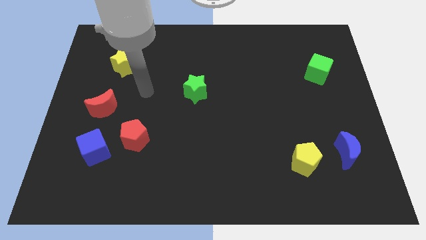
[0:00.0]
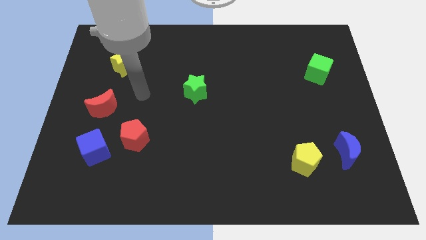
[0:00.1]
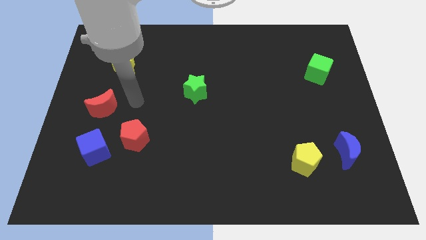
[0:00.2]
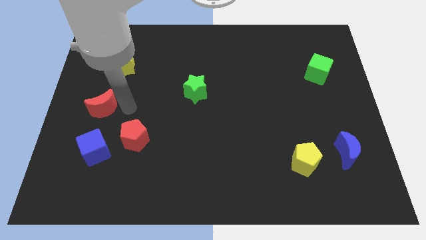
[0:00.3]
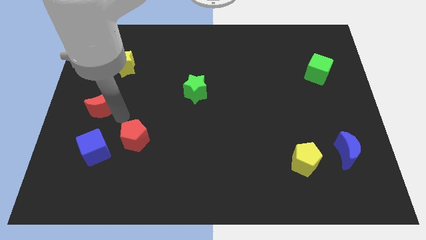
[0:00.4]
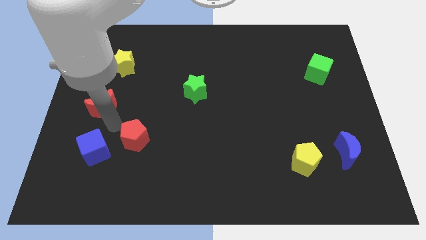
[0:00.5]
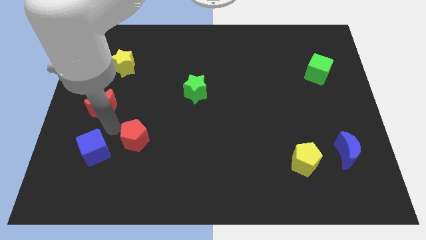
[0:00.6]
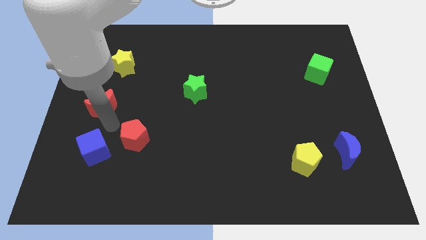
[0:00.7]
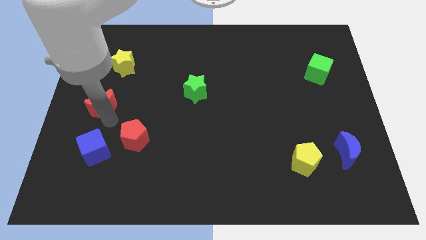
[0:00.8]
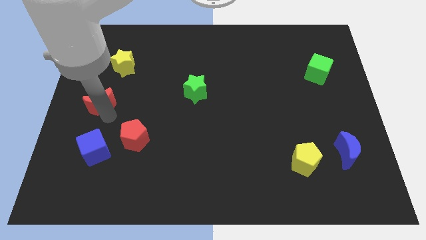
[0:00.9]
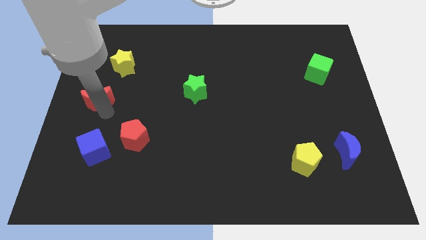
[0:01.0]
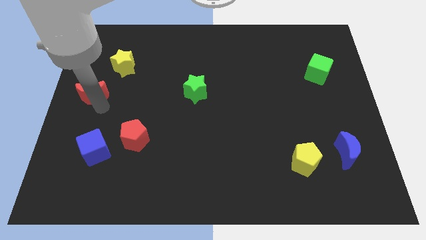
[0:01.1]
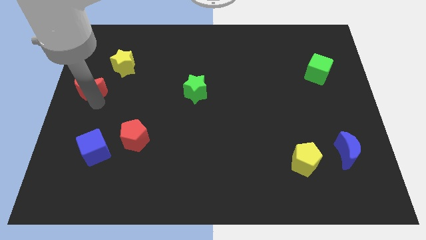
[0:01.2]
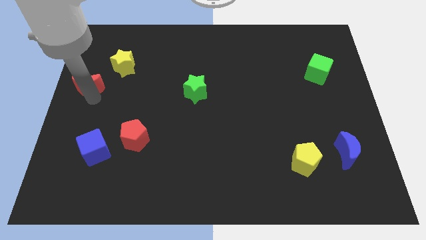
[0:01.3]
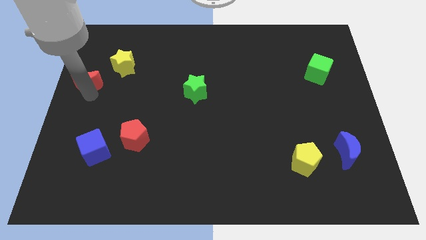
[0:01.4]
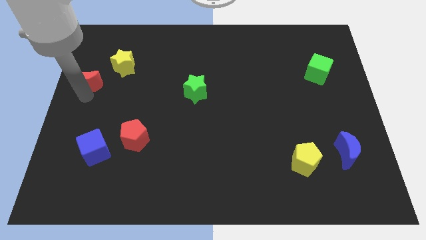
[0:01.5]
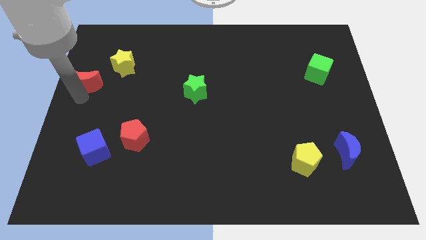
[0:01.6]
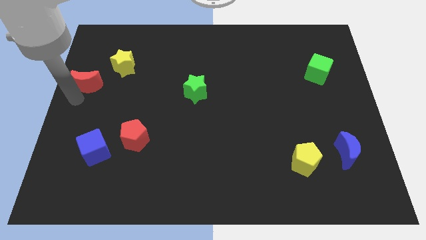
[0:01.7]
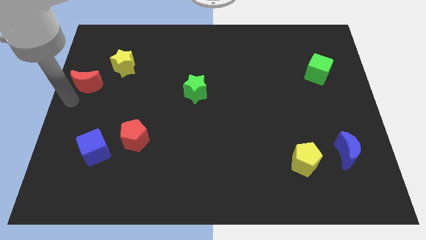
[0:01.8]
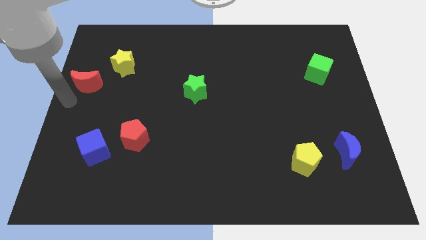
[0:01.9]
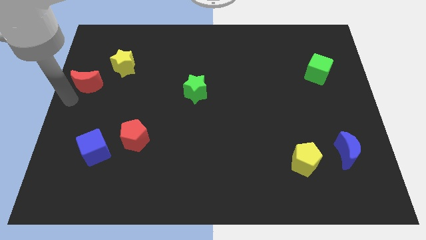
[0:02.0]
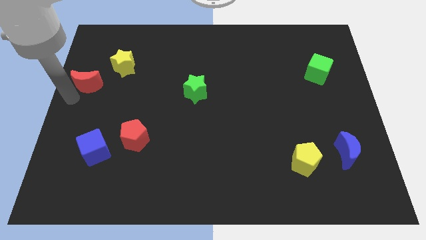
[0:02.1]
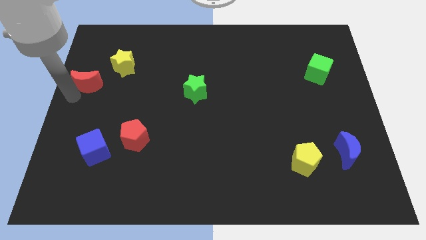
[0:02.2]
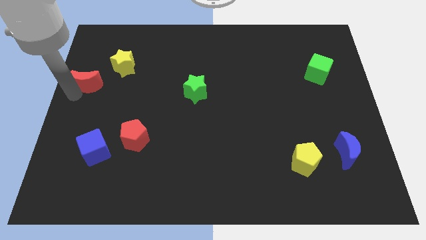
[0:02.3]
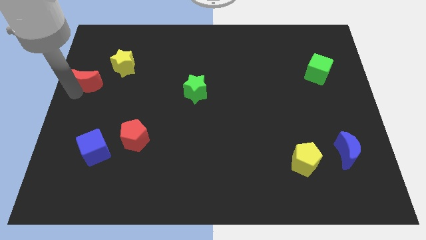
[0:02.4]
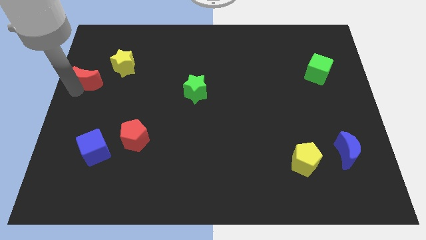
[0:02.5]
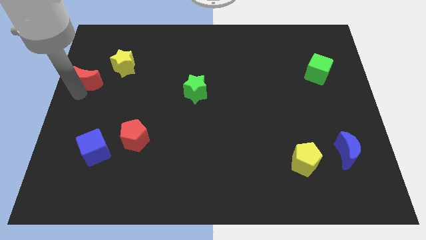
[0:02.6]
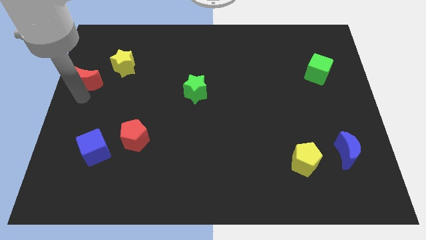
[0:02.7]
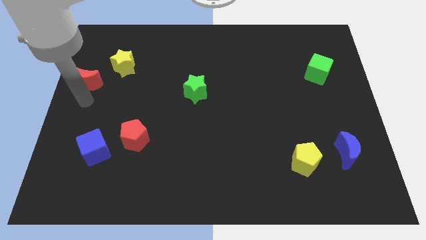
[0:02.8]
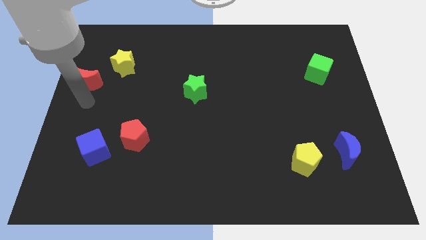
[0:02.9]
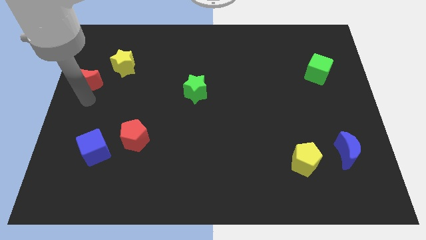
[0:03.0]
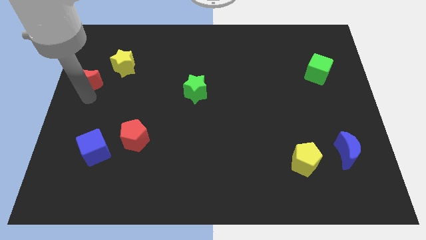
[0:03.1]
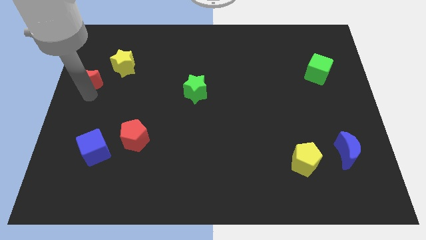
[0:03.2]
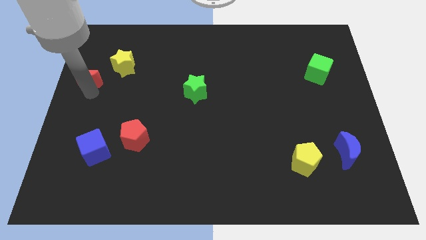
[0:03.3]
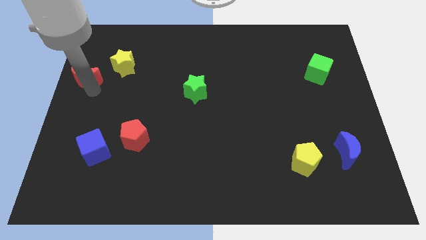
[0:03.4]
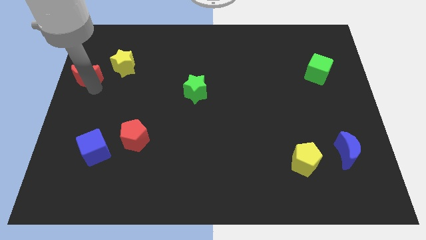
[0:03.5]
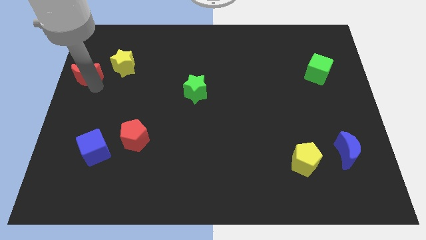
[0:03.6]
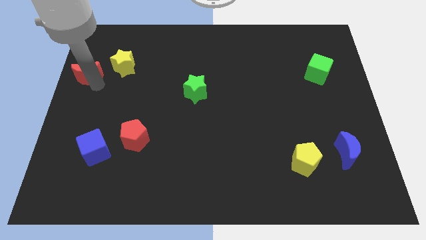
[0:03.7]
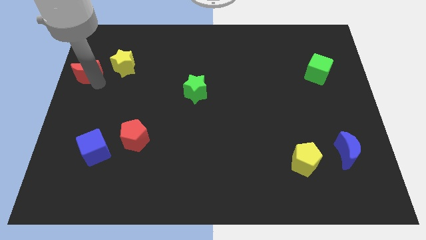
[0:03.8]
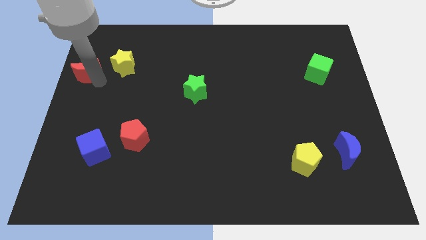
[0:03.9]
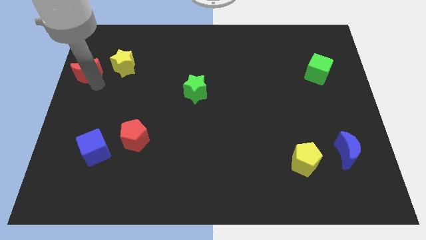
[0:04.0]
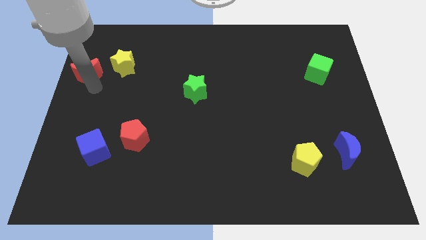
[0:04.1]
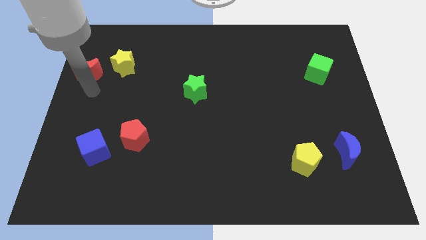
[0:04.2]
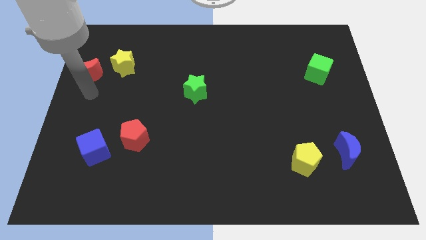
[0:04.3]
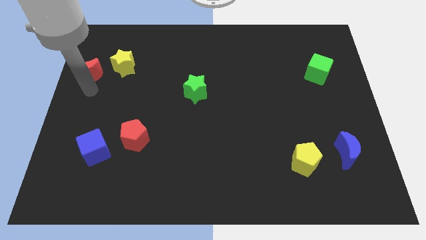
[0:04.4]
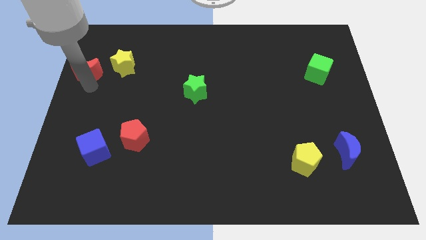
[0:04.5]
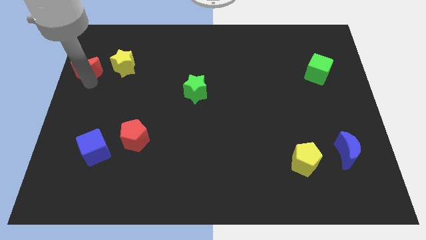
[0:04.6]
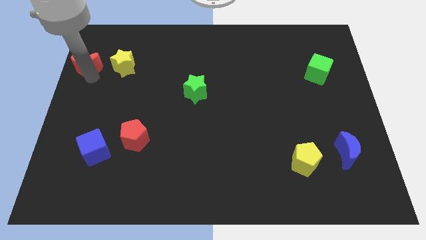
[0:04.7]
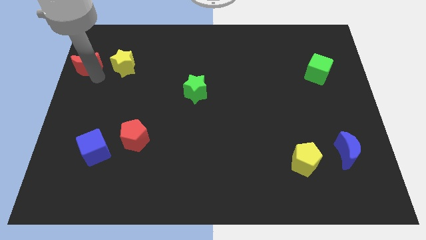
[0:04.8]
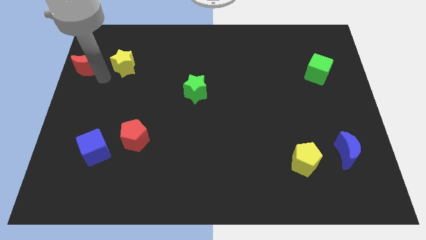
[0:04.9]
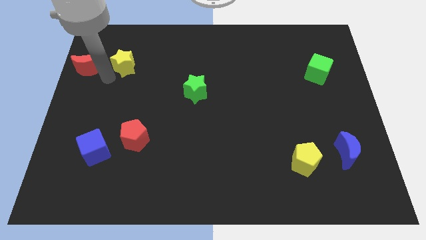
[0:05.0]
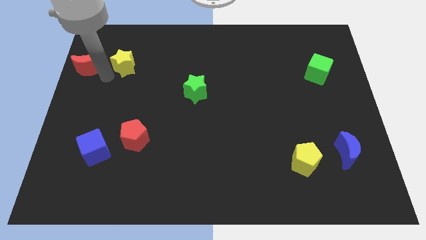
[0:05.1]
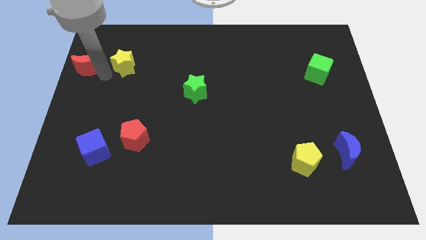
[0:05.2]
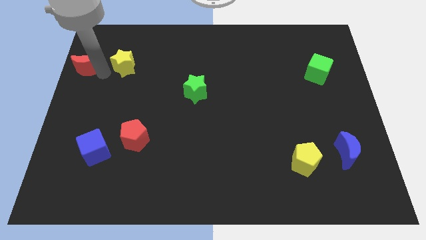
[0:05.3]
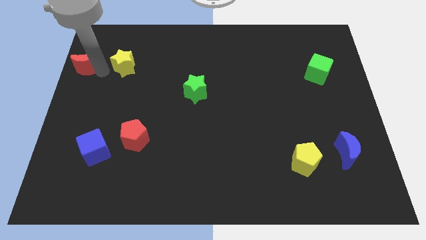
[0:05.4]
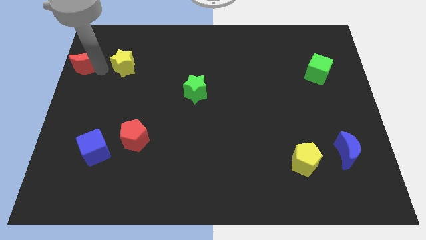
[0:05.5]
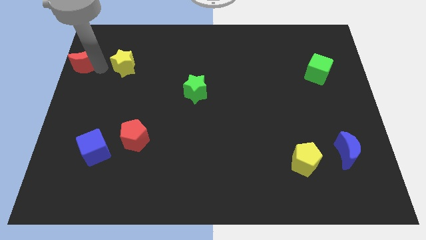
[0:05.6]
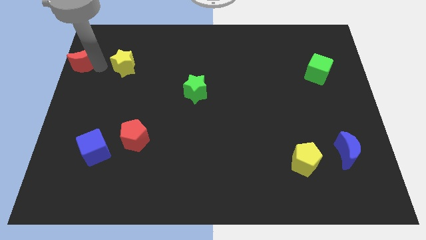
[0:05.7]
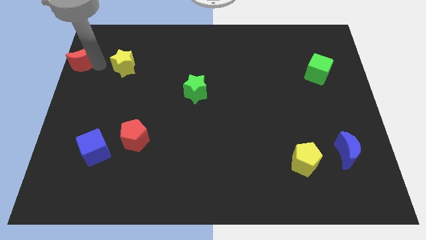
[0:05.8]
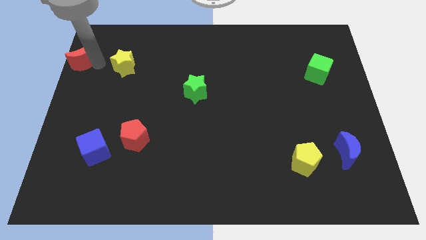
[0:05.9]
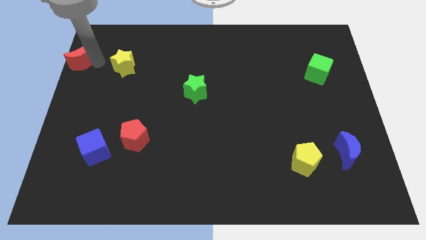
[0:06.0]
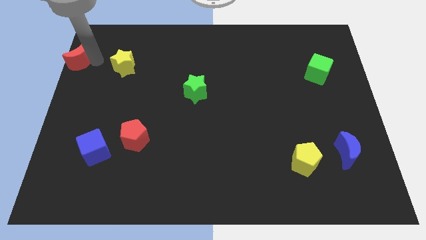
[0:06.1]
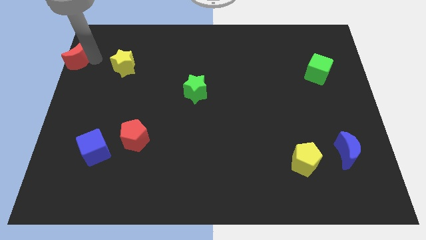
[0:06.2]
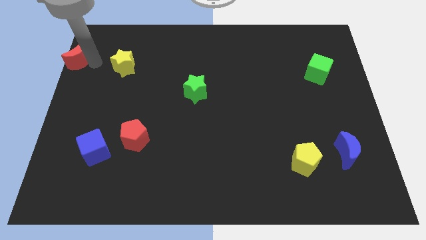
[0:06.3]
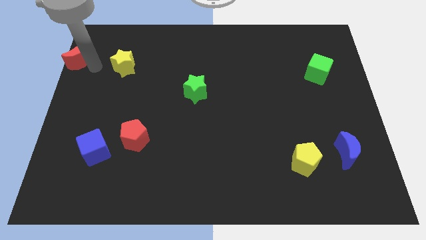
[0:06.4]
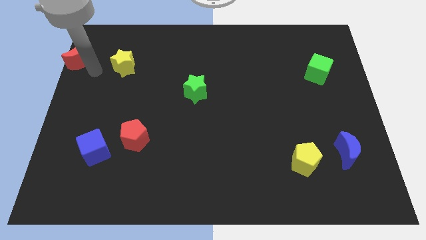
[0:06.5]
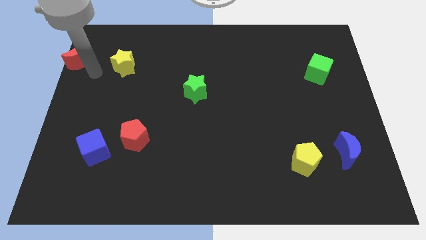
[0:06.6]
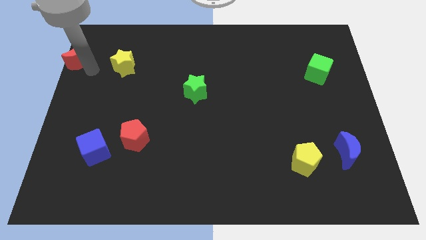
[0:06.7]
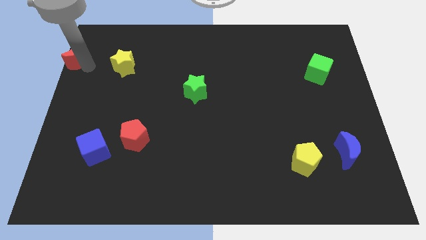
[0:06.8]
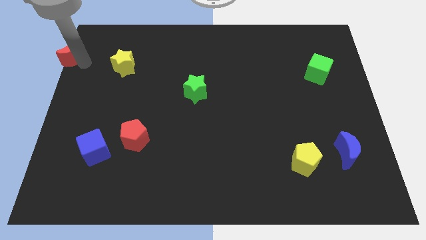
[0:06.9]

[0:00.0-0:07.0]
push the red moon to the upper left corner

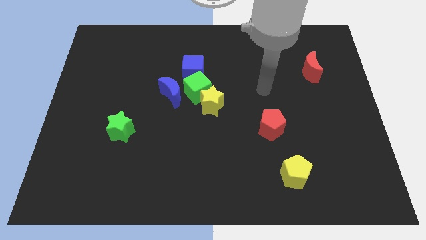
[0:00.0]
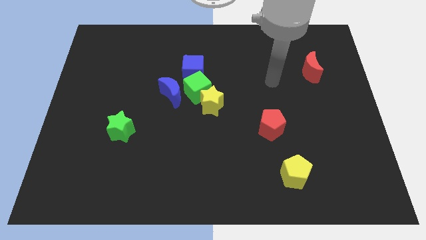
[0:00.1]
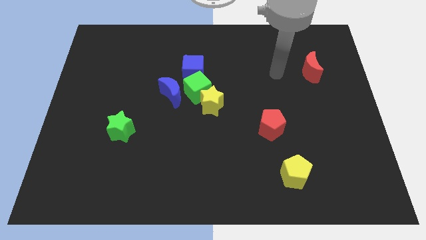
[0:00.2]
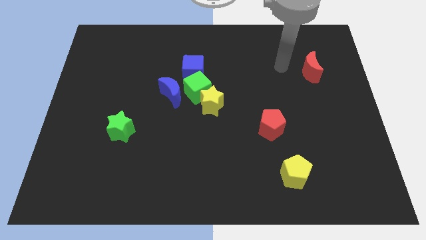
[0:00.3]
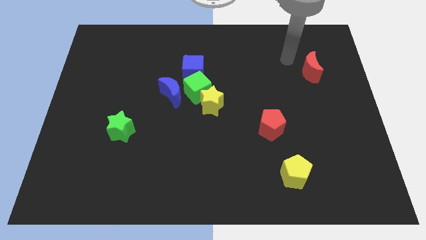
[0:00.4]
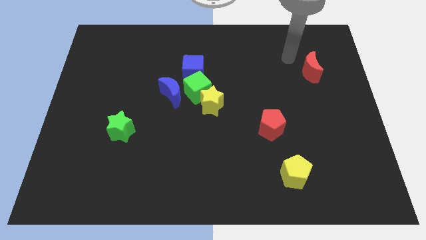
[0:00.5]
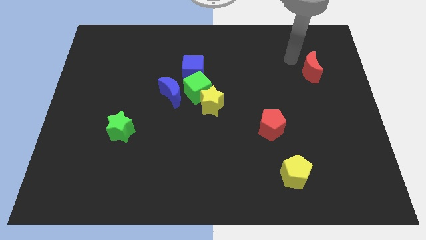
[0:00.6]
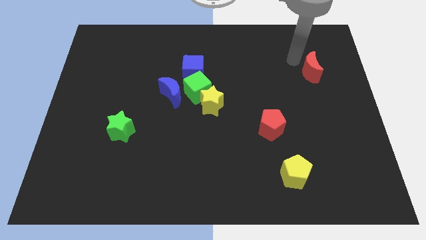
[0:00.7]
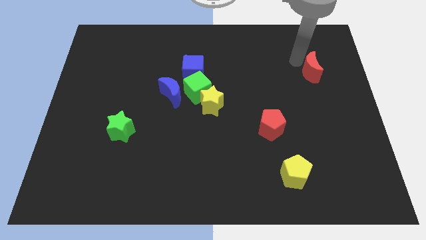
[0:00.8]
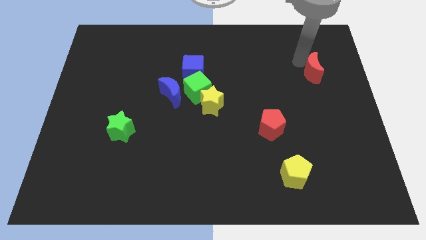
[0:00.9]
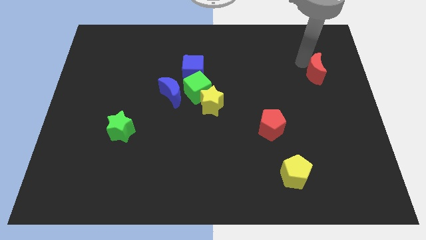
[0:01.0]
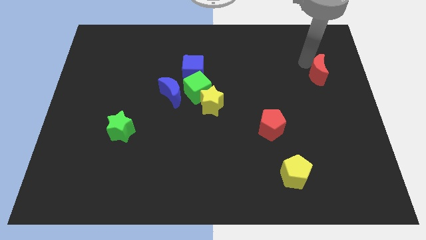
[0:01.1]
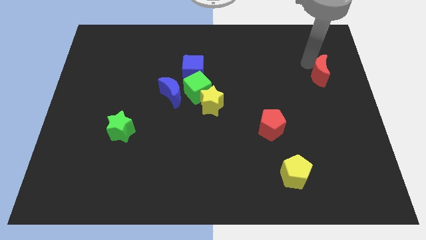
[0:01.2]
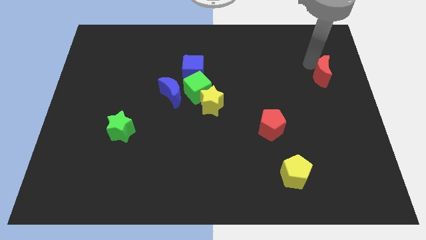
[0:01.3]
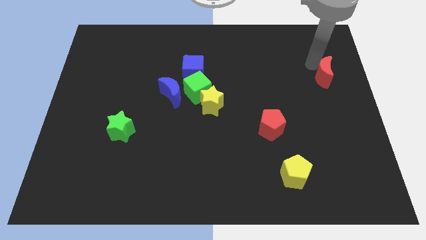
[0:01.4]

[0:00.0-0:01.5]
put the red moon to the right side of the board
